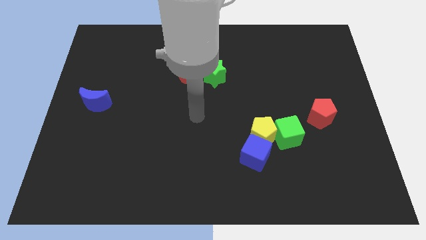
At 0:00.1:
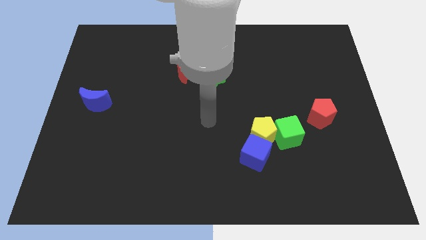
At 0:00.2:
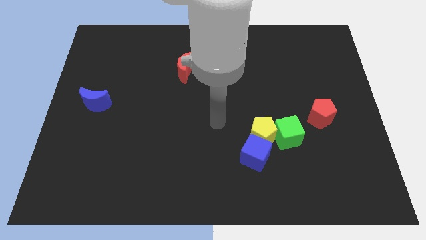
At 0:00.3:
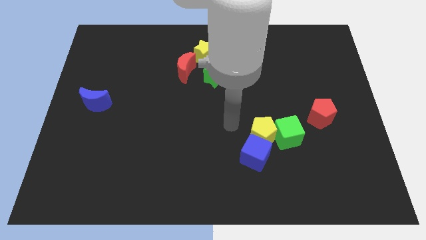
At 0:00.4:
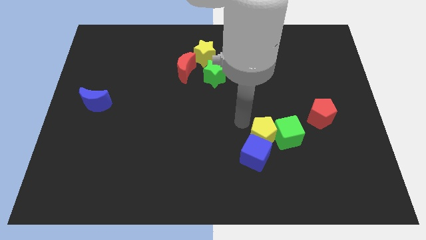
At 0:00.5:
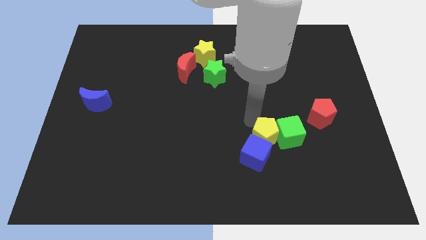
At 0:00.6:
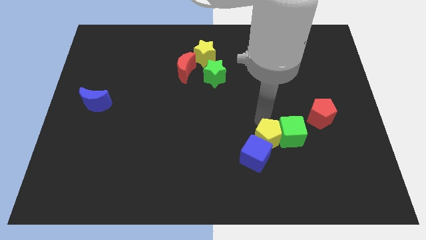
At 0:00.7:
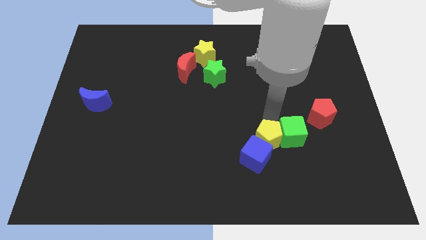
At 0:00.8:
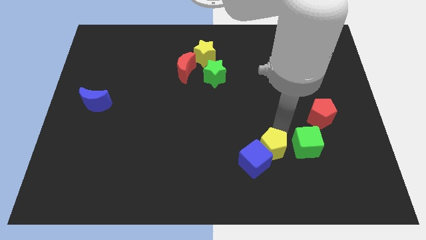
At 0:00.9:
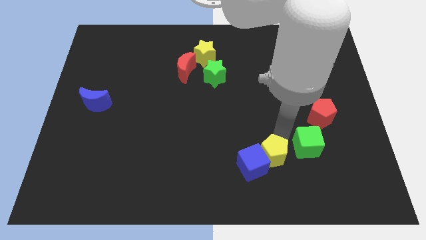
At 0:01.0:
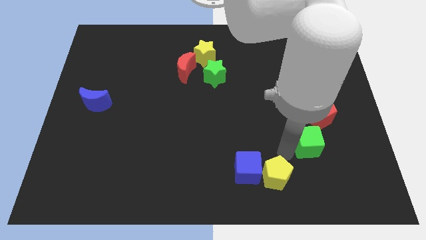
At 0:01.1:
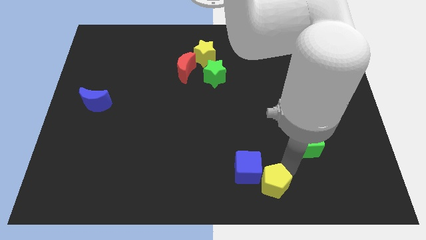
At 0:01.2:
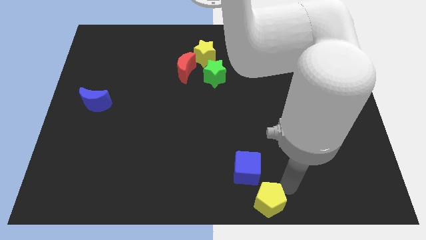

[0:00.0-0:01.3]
move the yellow pentagon away from the blue cube and green cube

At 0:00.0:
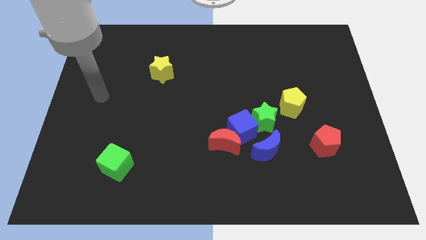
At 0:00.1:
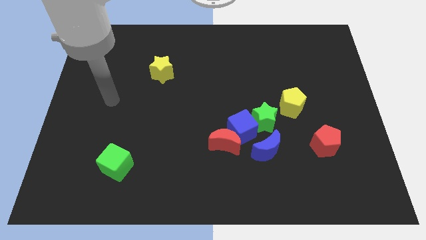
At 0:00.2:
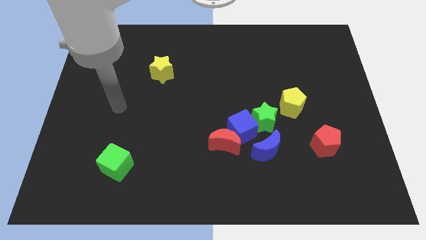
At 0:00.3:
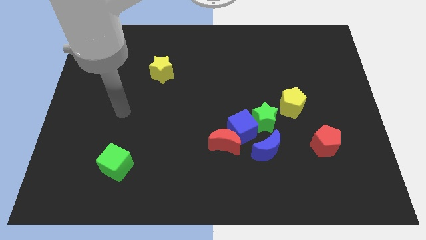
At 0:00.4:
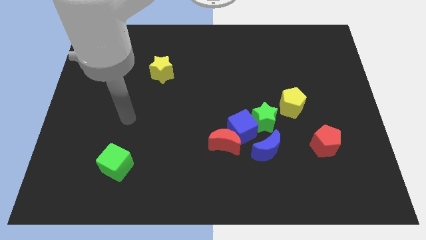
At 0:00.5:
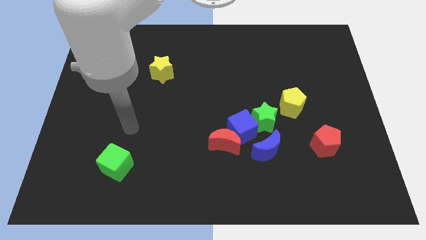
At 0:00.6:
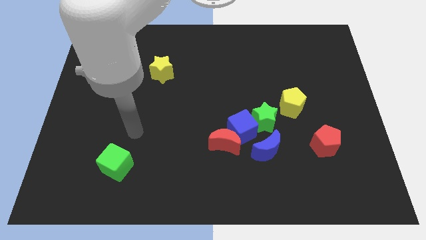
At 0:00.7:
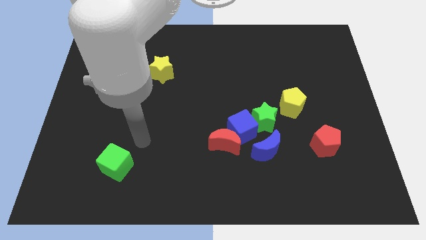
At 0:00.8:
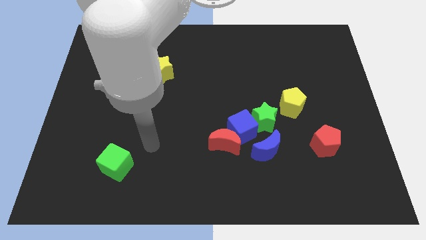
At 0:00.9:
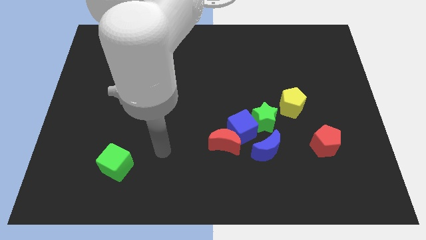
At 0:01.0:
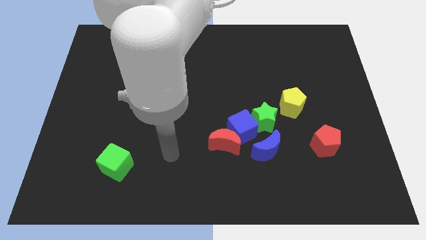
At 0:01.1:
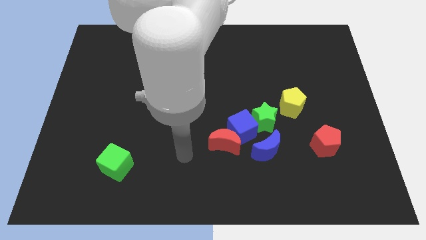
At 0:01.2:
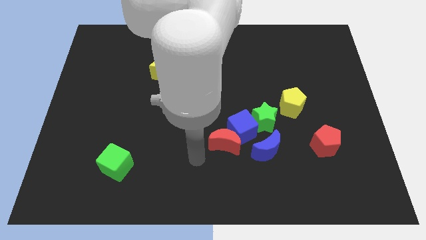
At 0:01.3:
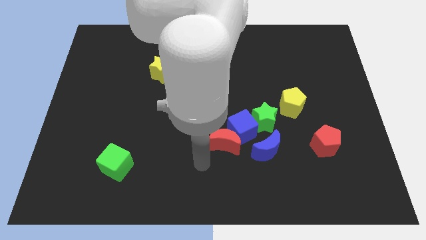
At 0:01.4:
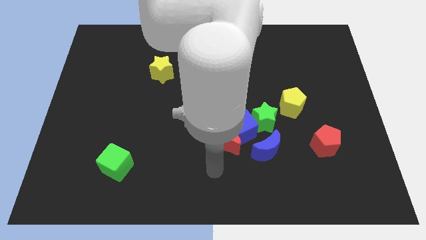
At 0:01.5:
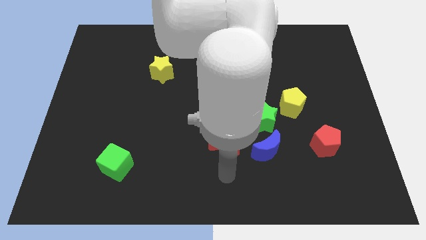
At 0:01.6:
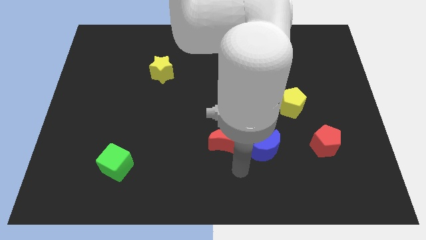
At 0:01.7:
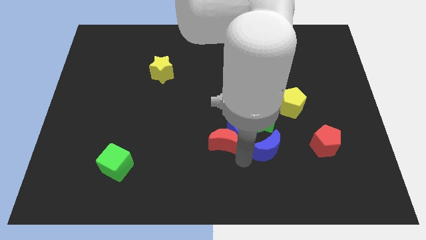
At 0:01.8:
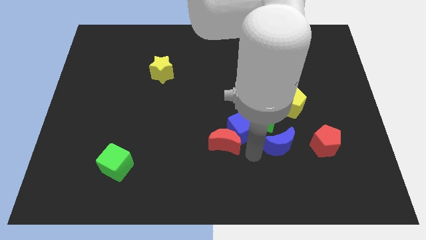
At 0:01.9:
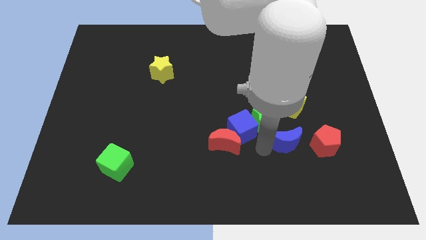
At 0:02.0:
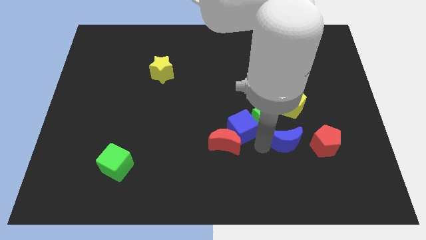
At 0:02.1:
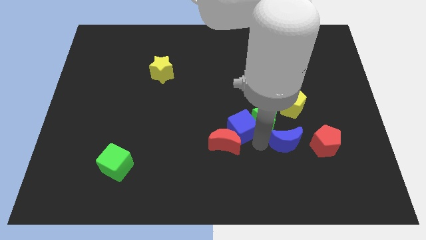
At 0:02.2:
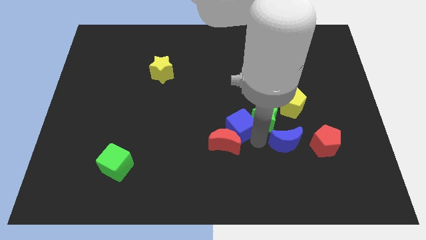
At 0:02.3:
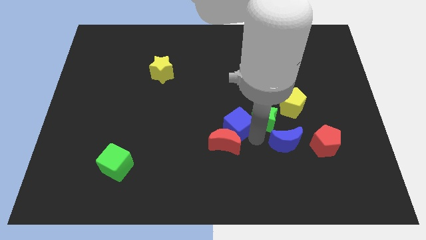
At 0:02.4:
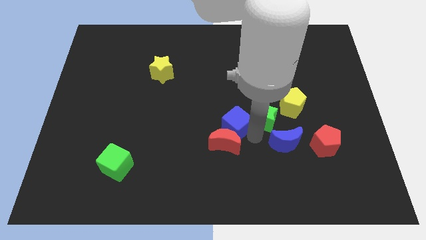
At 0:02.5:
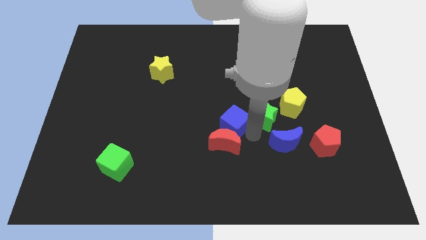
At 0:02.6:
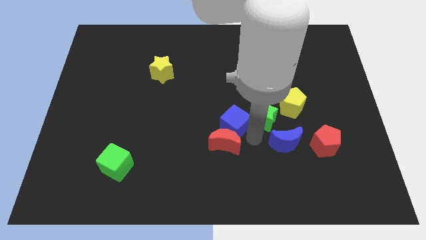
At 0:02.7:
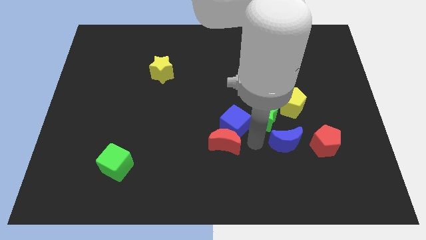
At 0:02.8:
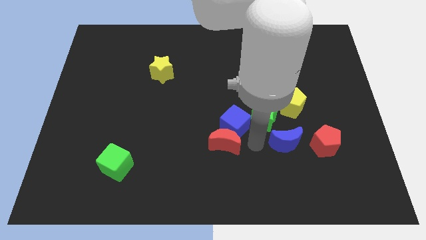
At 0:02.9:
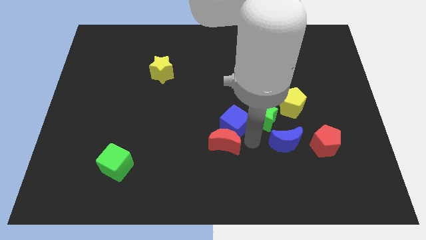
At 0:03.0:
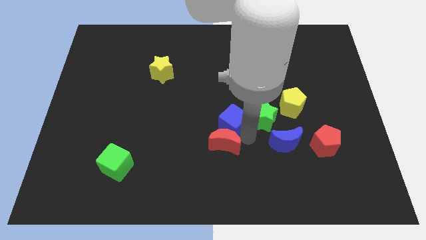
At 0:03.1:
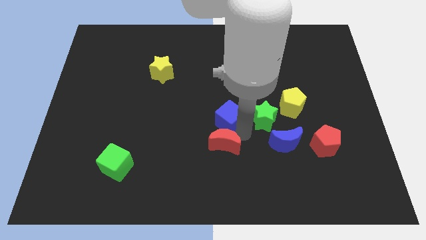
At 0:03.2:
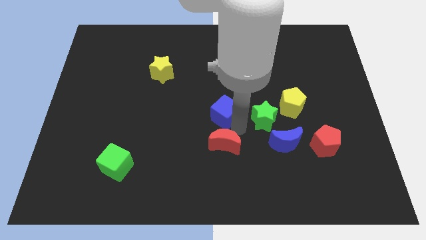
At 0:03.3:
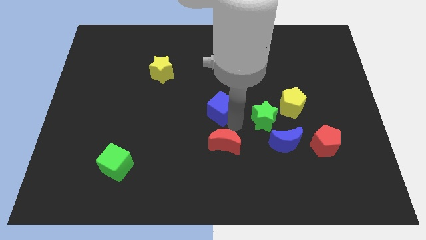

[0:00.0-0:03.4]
pull the blue cube apart from the clump

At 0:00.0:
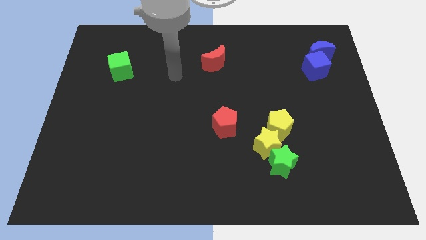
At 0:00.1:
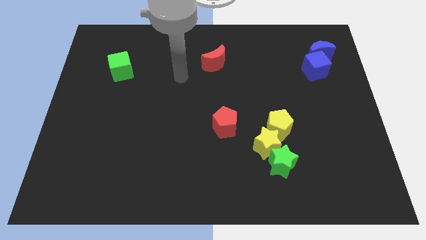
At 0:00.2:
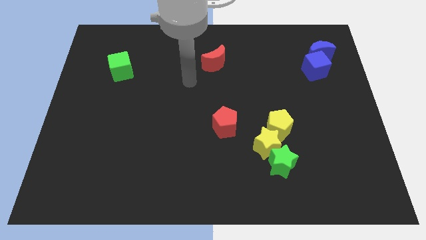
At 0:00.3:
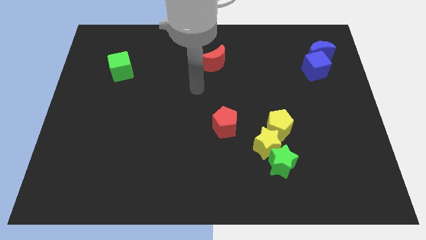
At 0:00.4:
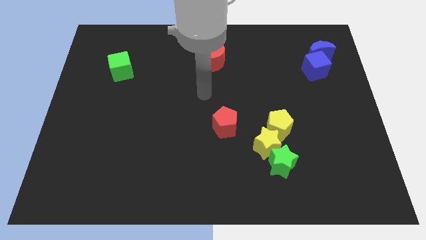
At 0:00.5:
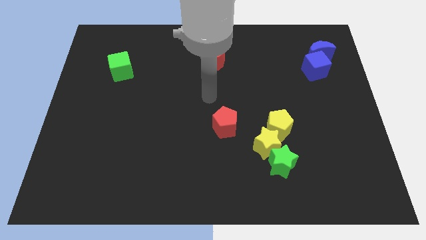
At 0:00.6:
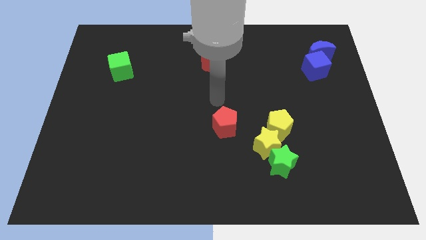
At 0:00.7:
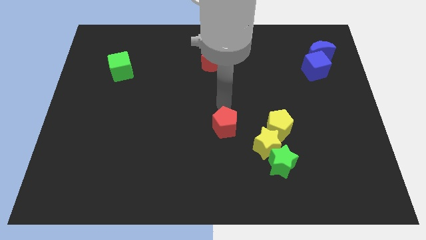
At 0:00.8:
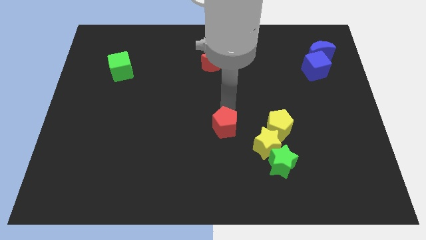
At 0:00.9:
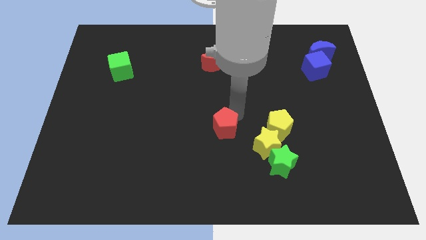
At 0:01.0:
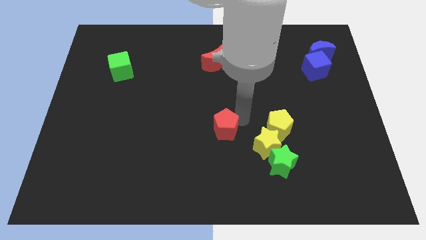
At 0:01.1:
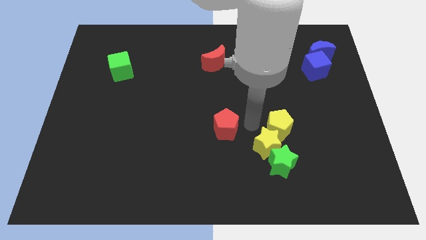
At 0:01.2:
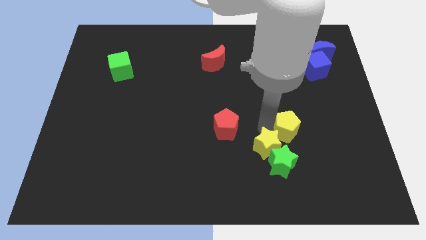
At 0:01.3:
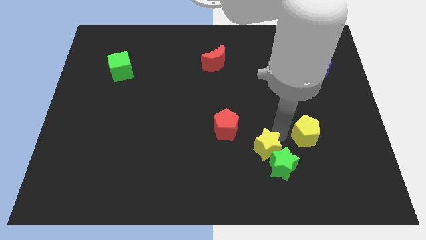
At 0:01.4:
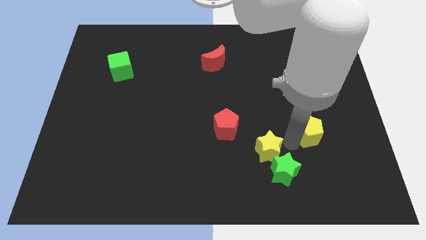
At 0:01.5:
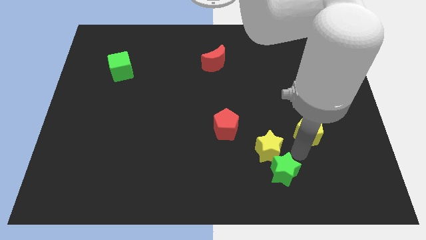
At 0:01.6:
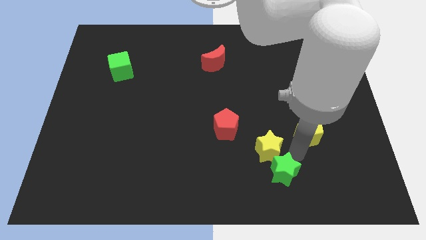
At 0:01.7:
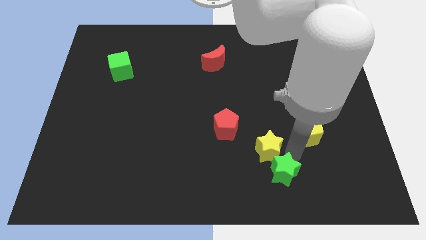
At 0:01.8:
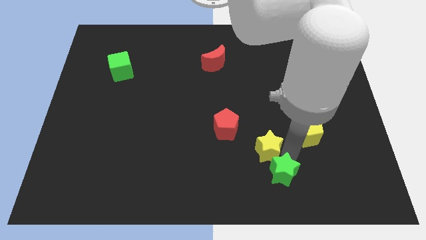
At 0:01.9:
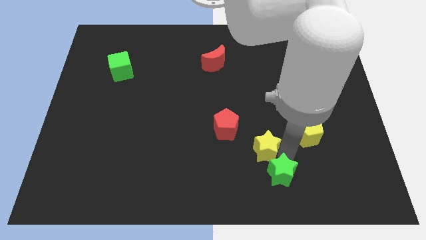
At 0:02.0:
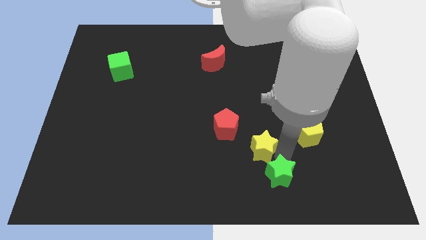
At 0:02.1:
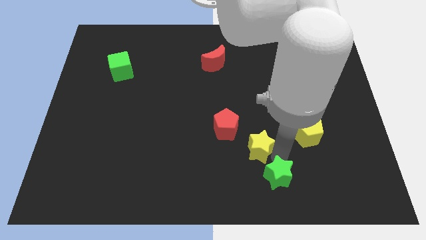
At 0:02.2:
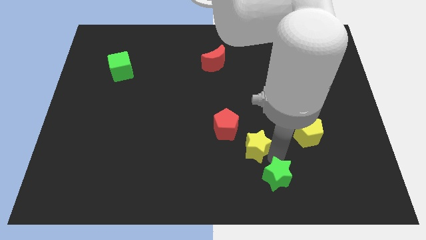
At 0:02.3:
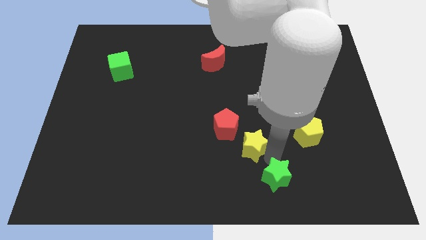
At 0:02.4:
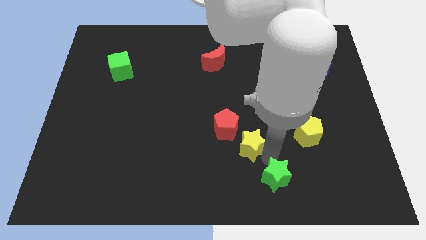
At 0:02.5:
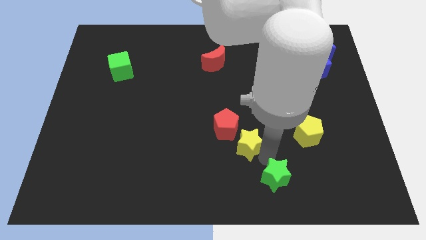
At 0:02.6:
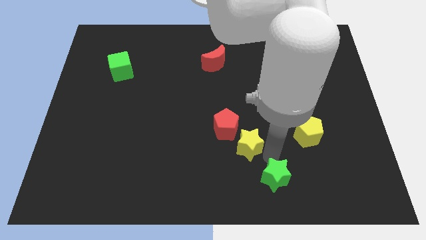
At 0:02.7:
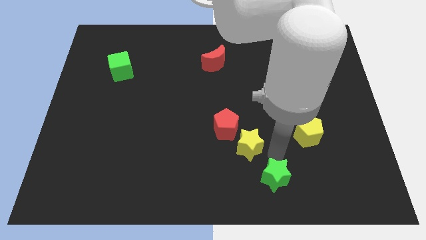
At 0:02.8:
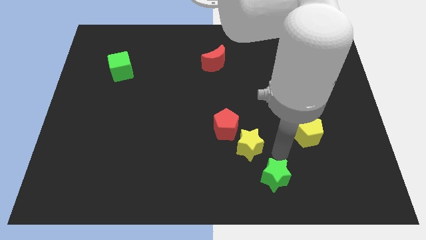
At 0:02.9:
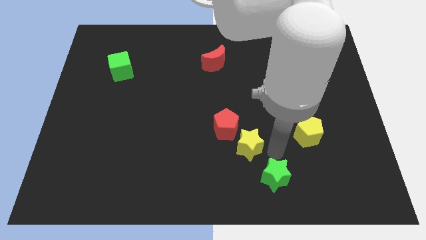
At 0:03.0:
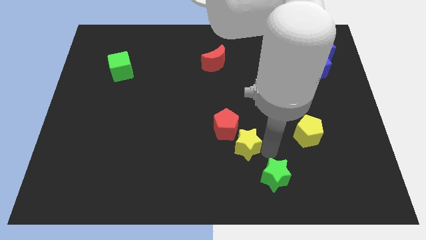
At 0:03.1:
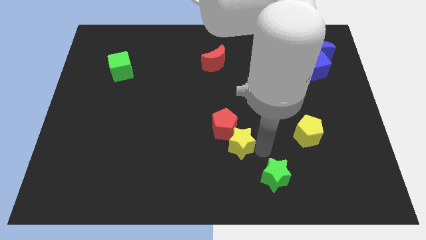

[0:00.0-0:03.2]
move the yellow star away from the yellow pentagon and green star

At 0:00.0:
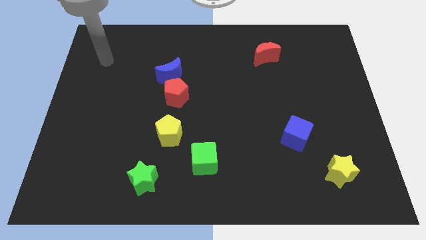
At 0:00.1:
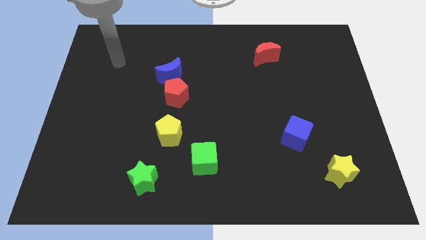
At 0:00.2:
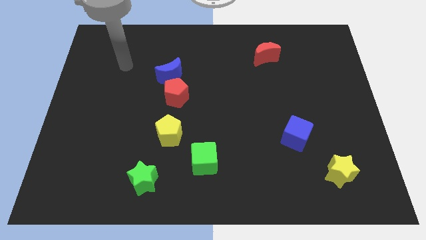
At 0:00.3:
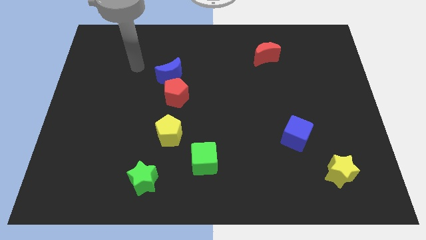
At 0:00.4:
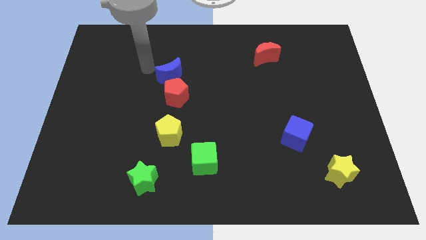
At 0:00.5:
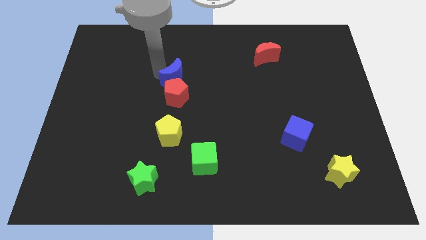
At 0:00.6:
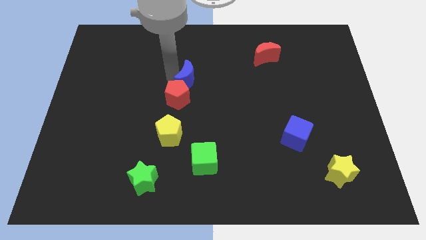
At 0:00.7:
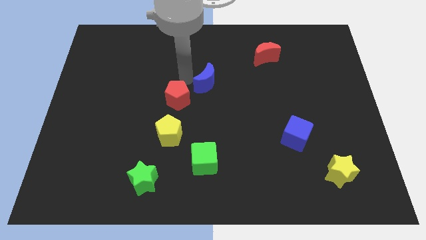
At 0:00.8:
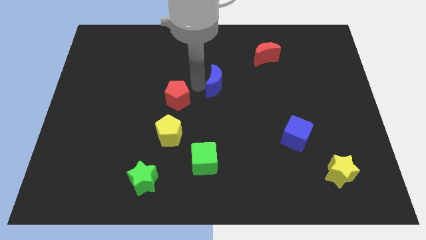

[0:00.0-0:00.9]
separate the red pentagon from the blue moon

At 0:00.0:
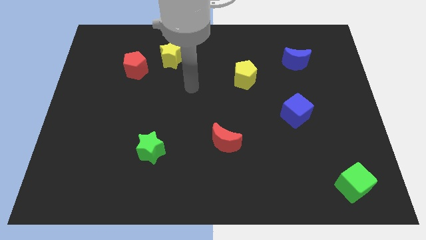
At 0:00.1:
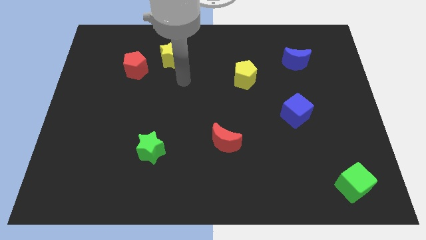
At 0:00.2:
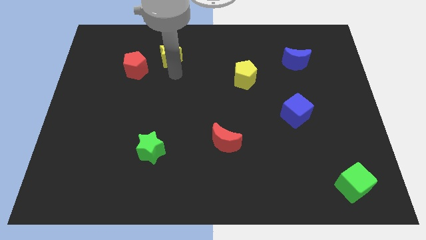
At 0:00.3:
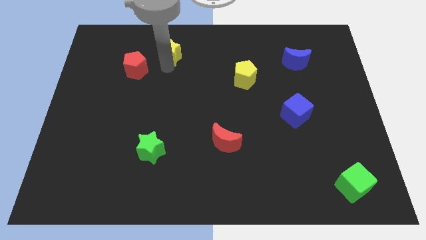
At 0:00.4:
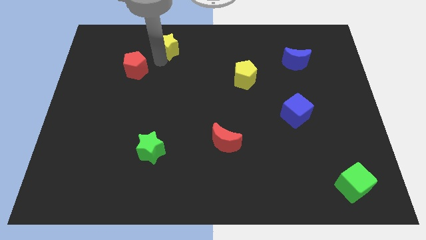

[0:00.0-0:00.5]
pull the red pentagon apart from the yellow star
